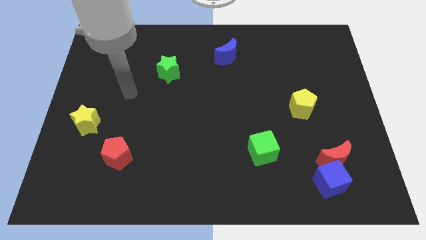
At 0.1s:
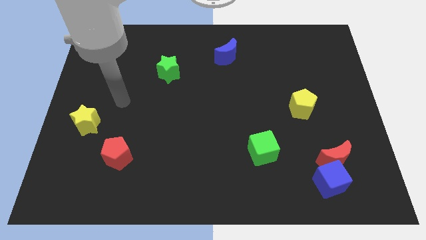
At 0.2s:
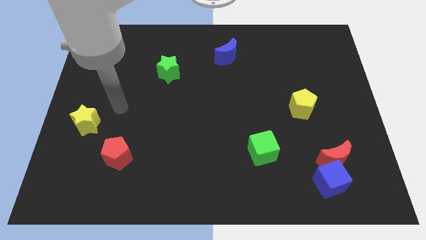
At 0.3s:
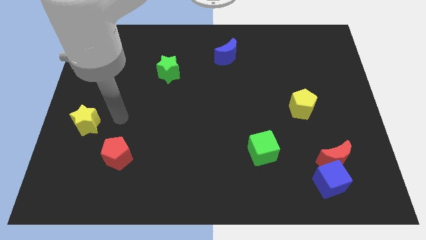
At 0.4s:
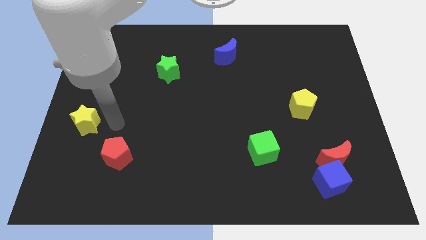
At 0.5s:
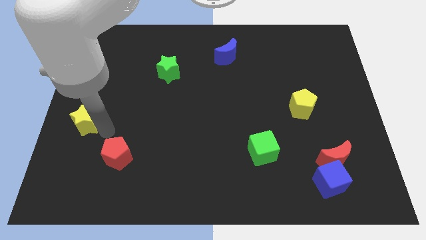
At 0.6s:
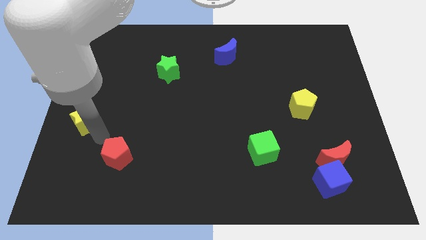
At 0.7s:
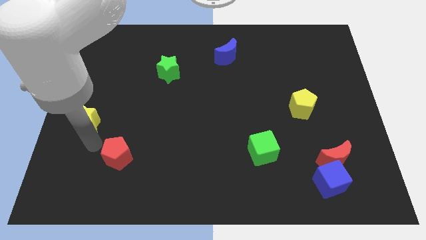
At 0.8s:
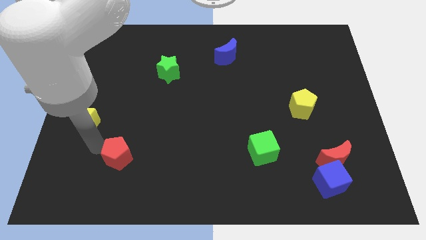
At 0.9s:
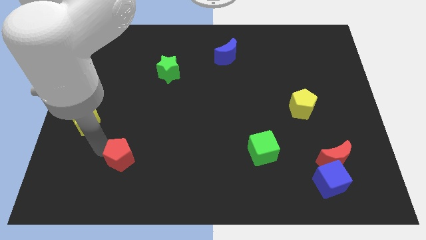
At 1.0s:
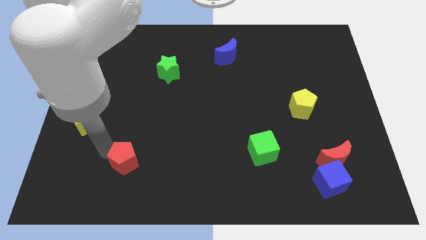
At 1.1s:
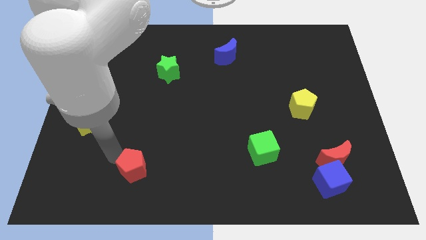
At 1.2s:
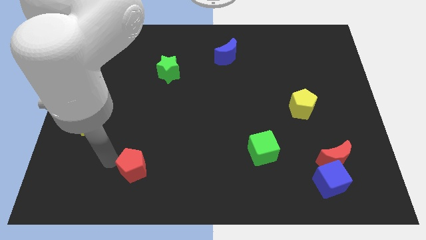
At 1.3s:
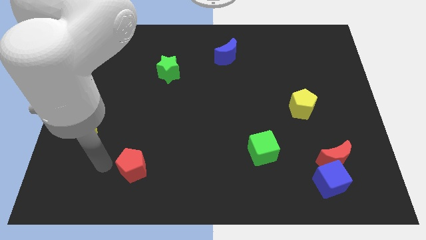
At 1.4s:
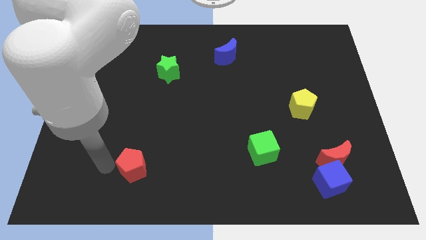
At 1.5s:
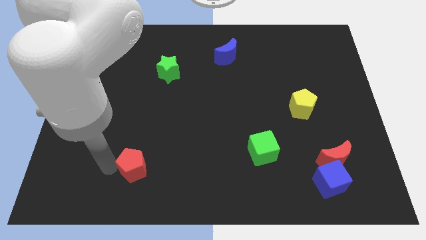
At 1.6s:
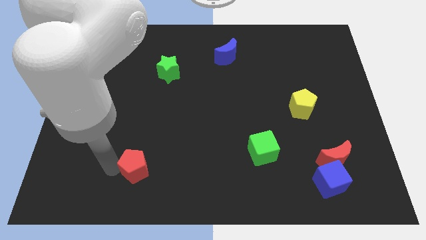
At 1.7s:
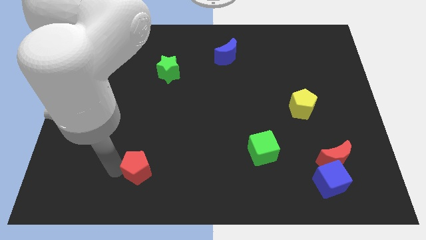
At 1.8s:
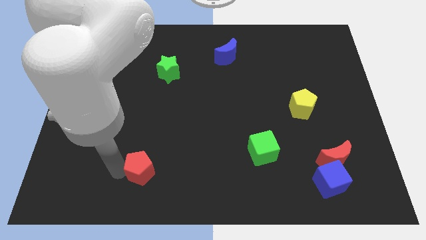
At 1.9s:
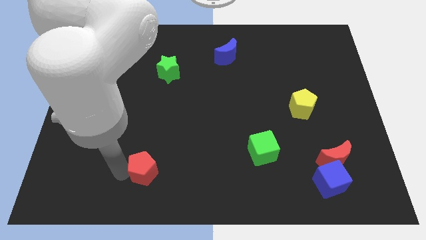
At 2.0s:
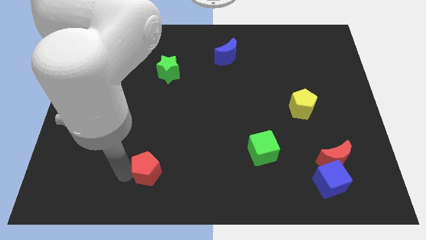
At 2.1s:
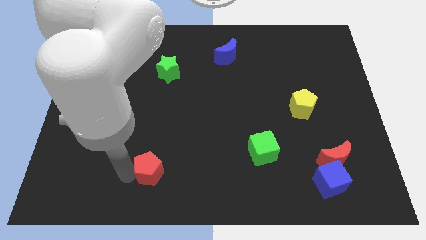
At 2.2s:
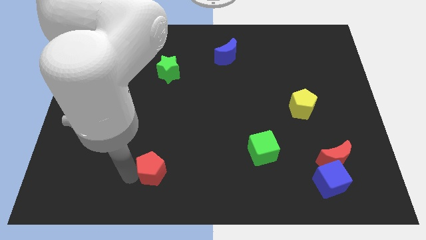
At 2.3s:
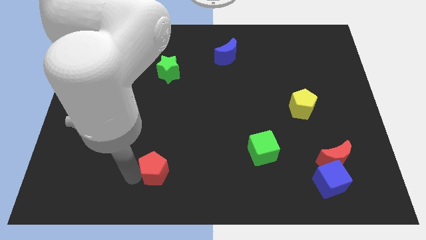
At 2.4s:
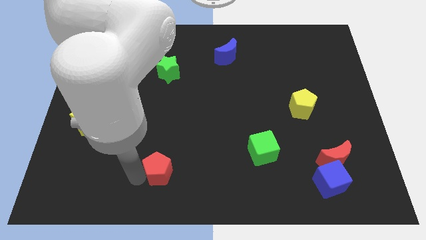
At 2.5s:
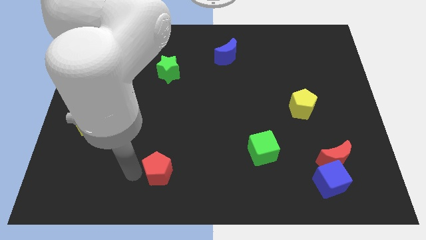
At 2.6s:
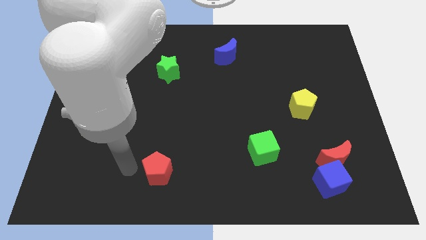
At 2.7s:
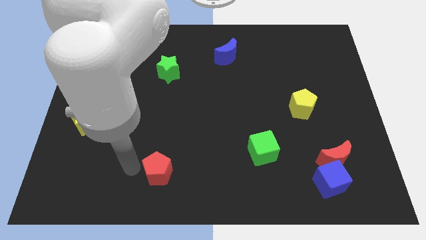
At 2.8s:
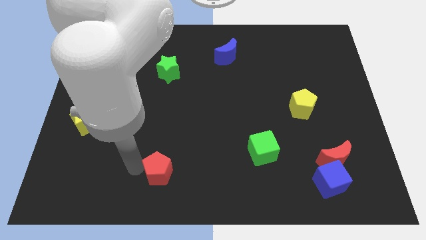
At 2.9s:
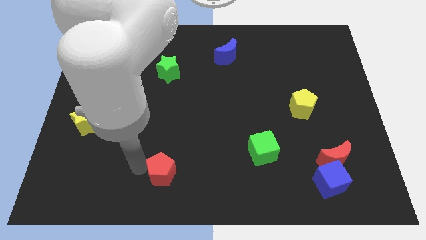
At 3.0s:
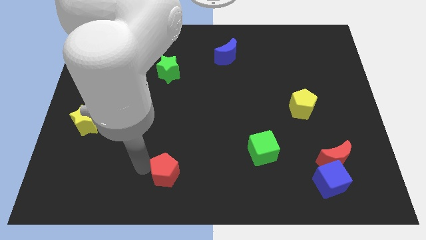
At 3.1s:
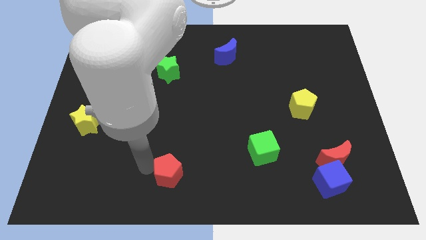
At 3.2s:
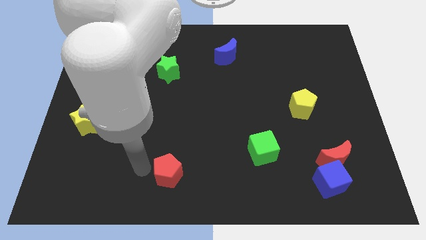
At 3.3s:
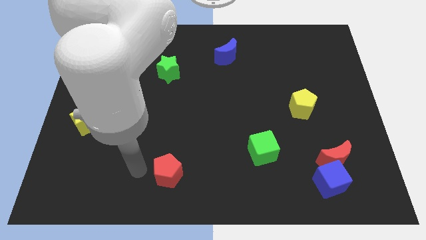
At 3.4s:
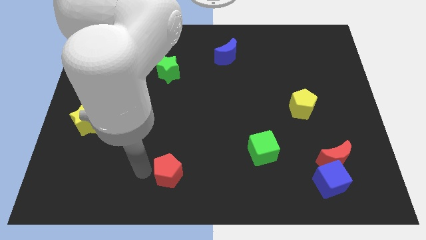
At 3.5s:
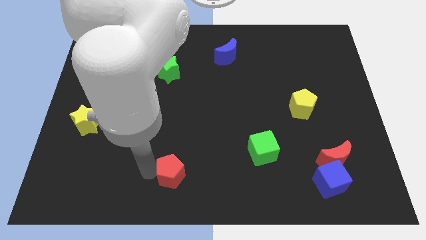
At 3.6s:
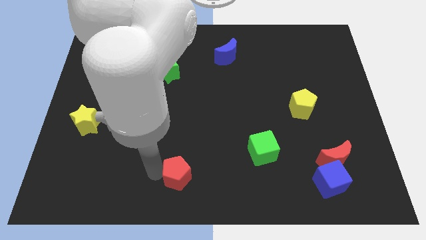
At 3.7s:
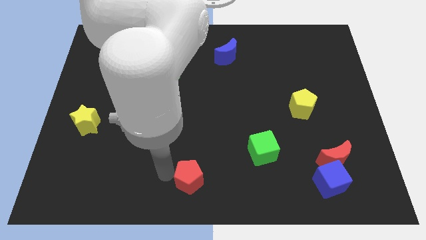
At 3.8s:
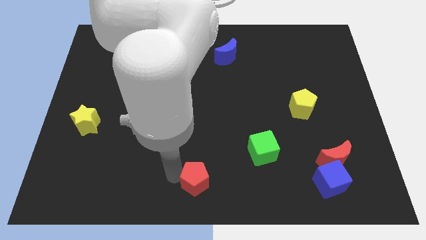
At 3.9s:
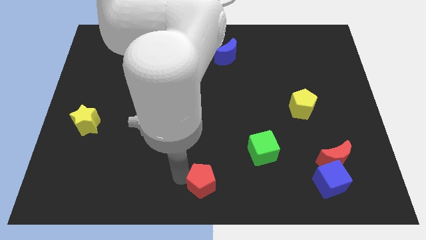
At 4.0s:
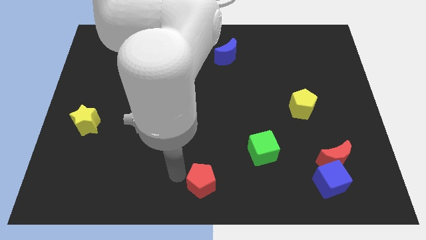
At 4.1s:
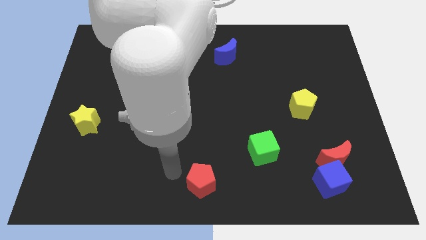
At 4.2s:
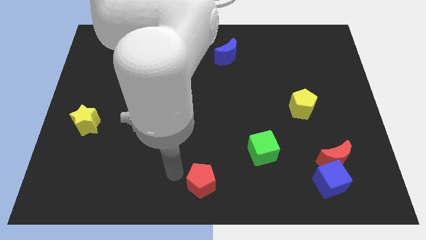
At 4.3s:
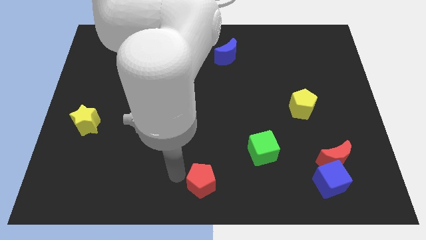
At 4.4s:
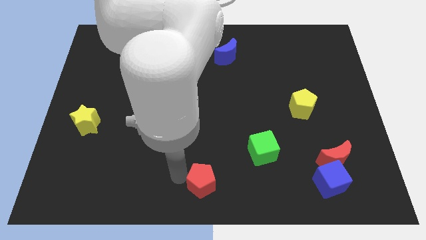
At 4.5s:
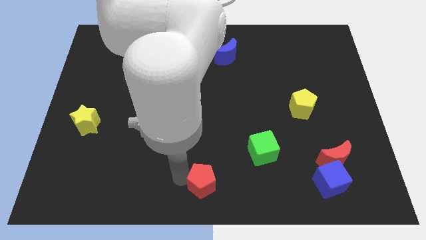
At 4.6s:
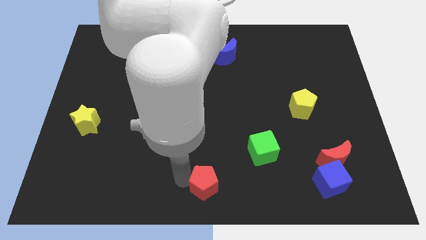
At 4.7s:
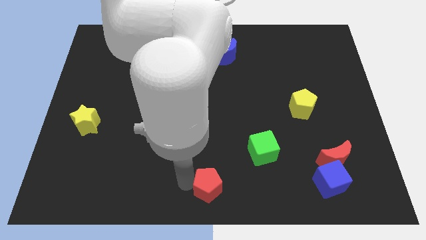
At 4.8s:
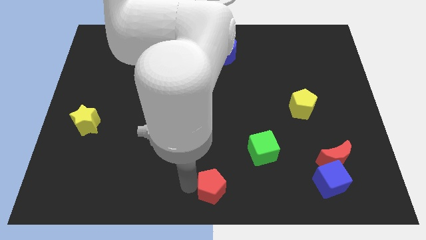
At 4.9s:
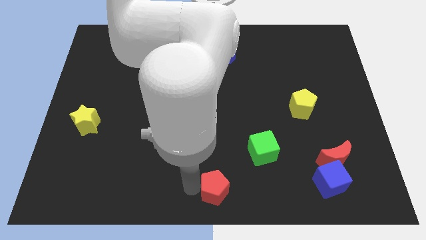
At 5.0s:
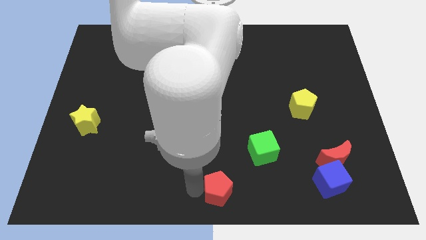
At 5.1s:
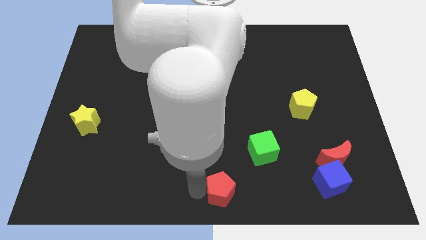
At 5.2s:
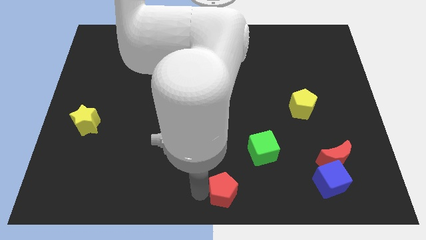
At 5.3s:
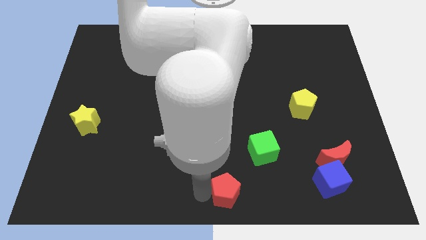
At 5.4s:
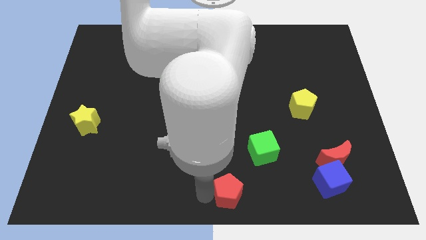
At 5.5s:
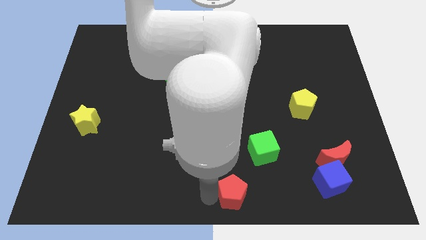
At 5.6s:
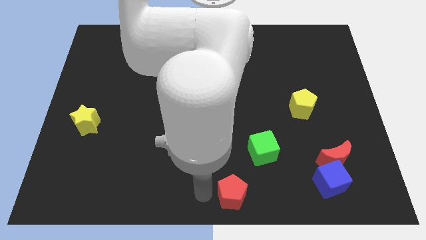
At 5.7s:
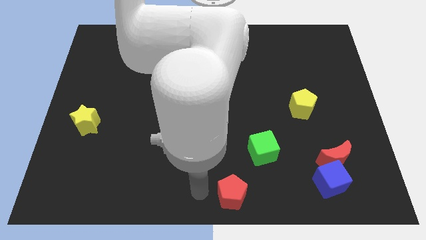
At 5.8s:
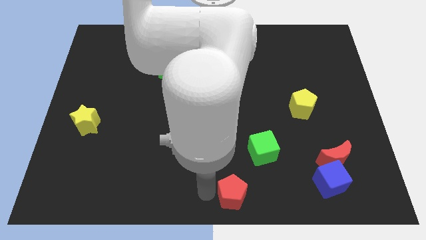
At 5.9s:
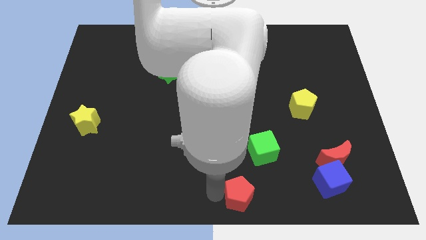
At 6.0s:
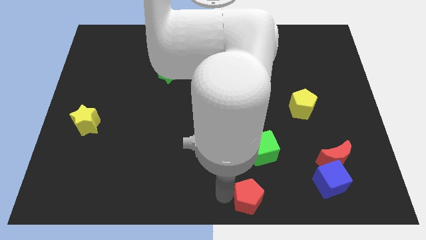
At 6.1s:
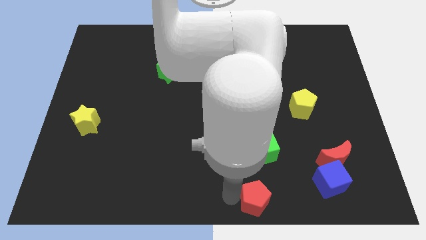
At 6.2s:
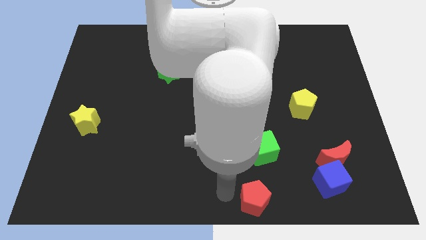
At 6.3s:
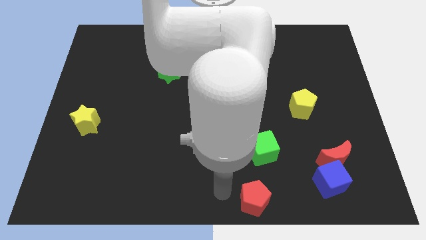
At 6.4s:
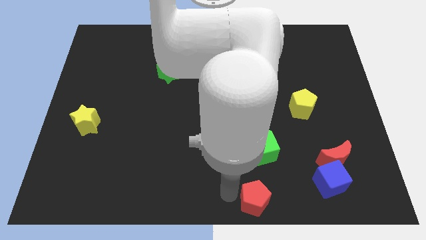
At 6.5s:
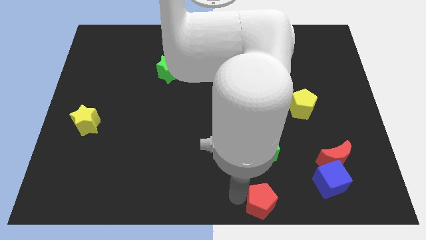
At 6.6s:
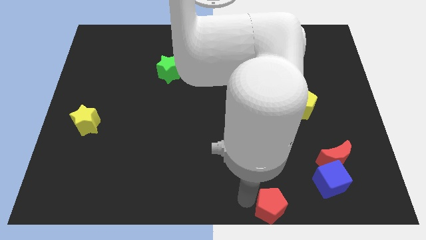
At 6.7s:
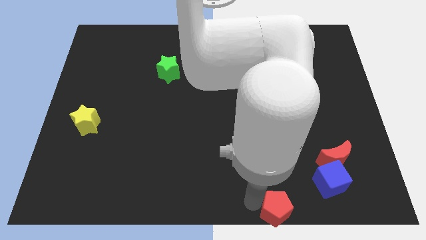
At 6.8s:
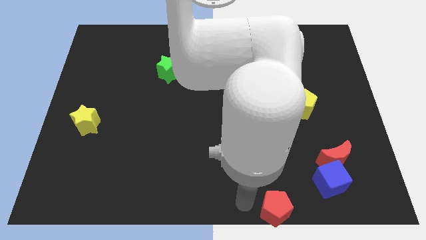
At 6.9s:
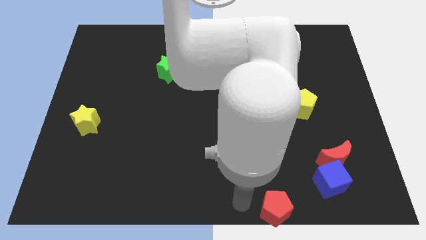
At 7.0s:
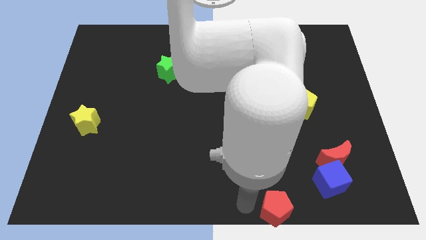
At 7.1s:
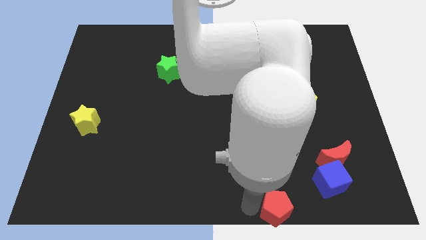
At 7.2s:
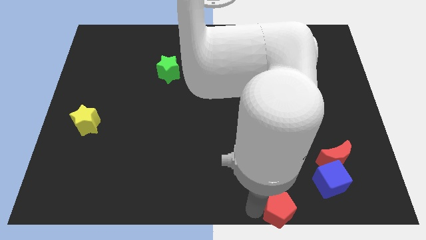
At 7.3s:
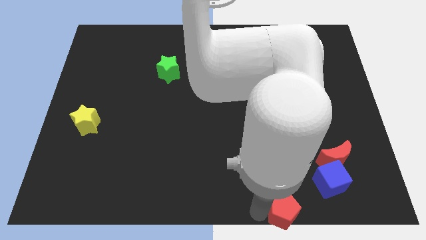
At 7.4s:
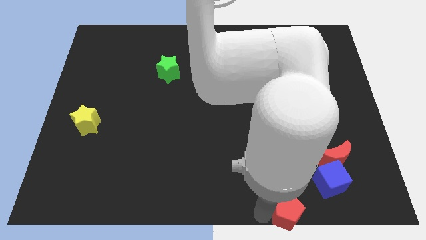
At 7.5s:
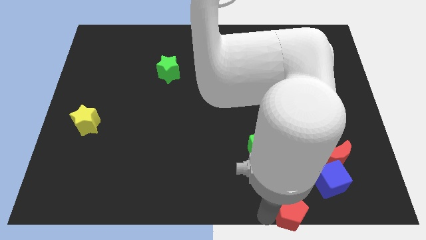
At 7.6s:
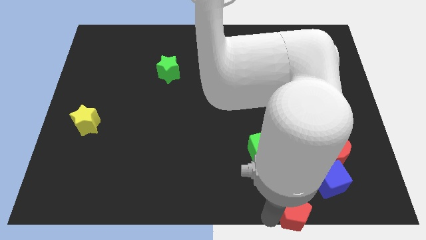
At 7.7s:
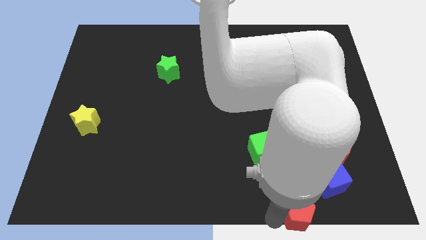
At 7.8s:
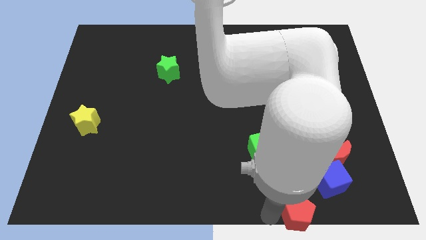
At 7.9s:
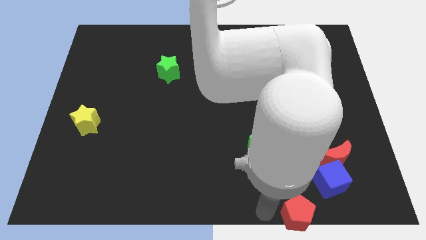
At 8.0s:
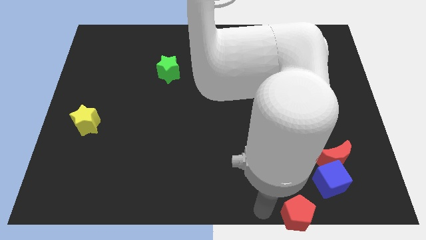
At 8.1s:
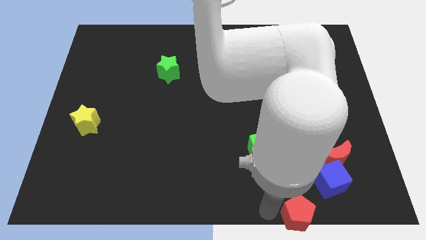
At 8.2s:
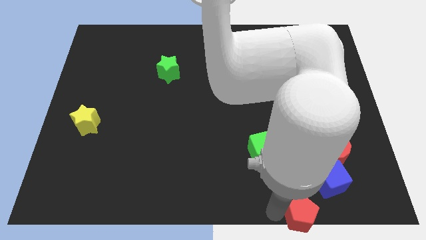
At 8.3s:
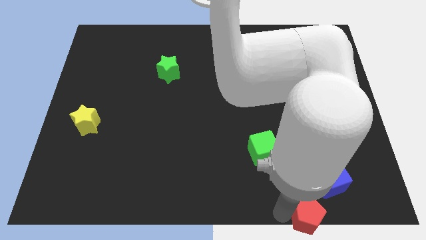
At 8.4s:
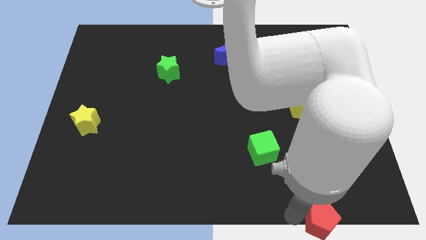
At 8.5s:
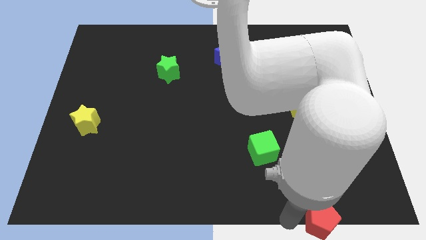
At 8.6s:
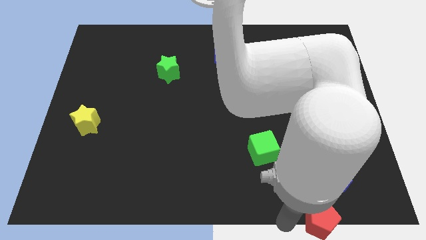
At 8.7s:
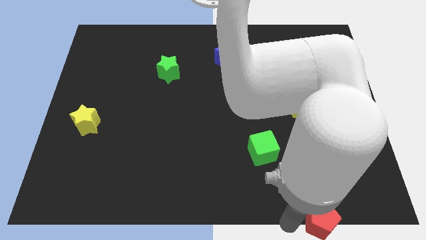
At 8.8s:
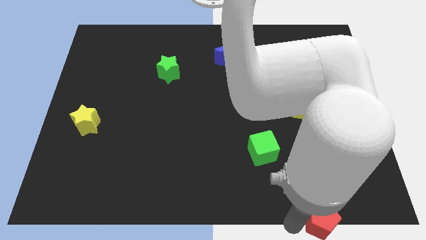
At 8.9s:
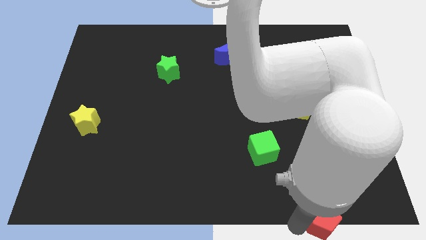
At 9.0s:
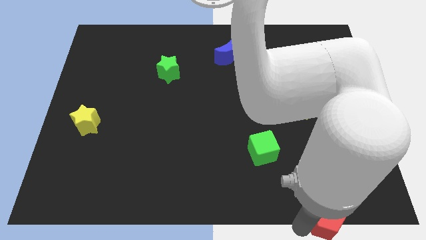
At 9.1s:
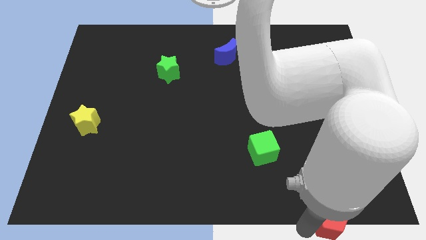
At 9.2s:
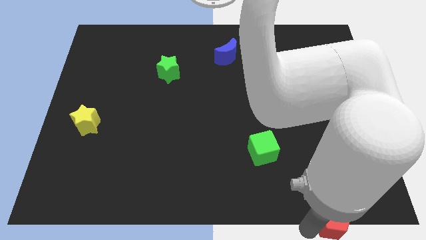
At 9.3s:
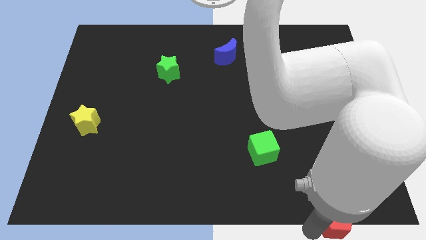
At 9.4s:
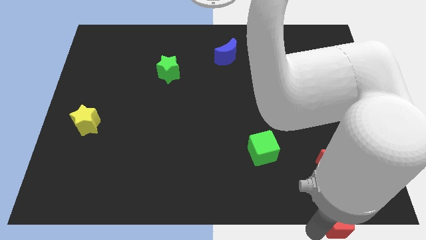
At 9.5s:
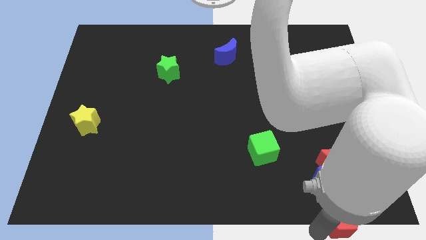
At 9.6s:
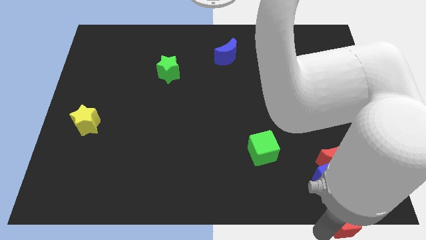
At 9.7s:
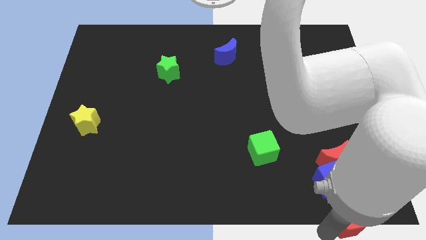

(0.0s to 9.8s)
slide the red pentagon to the bottom right corner
